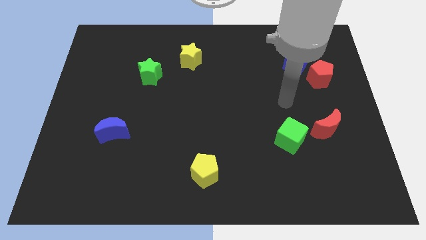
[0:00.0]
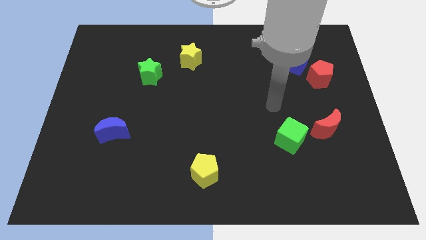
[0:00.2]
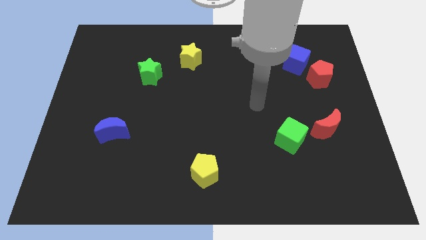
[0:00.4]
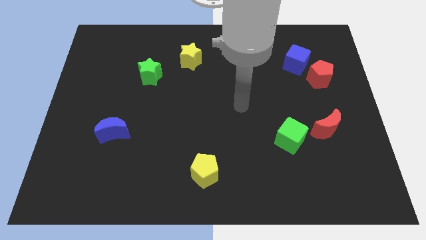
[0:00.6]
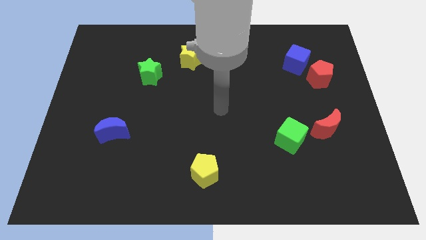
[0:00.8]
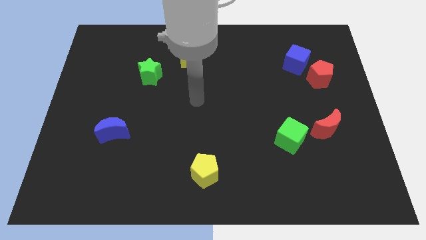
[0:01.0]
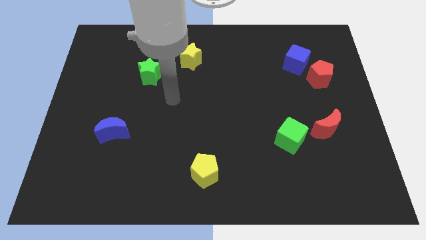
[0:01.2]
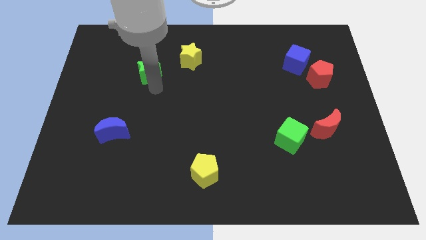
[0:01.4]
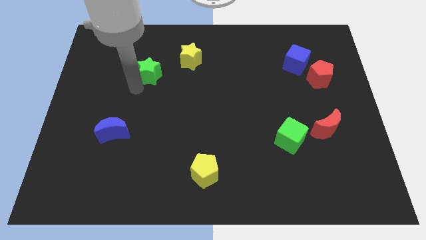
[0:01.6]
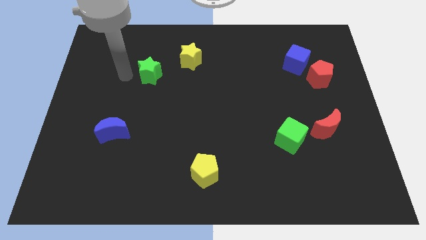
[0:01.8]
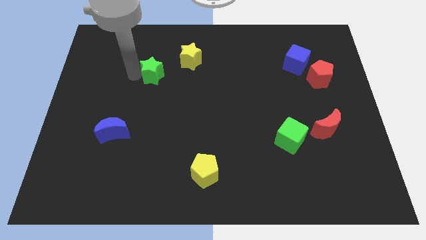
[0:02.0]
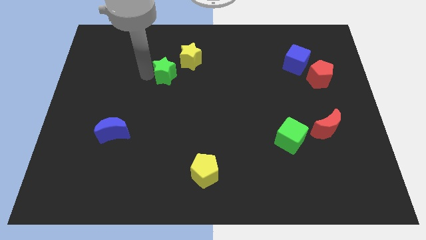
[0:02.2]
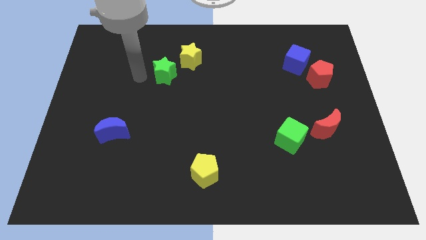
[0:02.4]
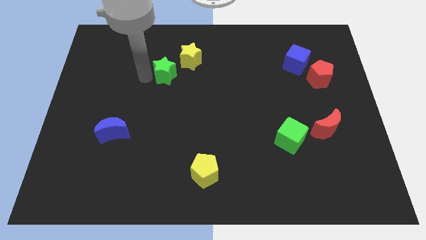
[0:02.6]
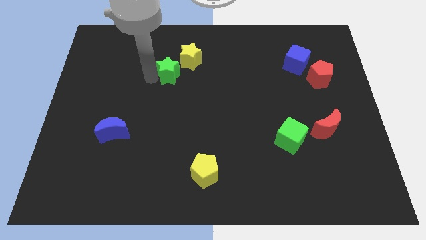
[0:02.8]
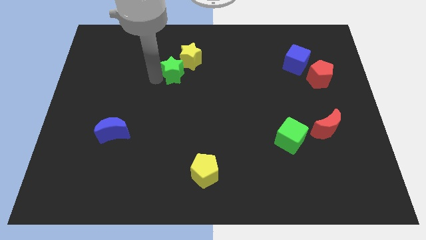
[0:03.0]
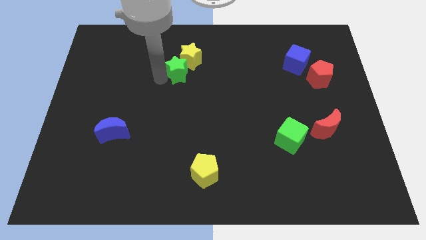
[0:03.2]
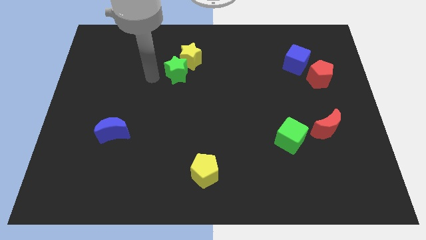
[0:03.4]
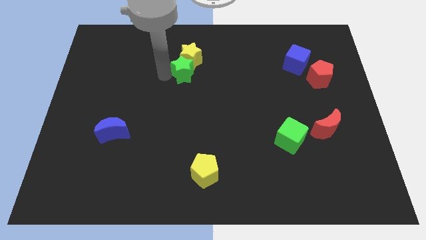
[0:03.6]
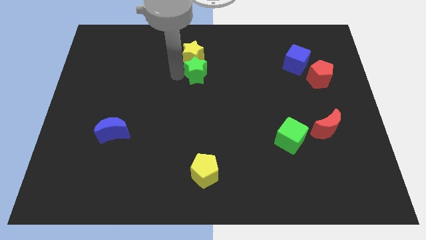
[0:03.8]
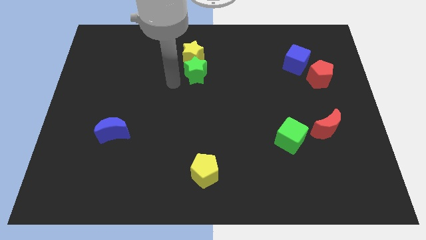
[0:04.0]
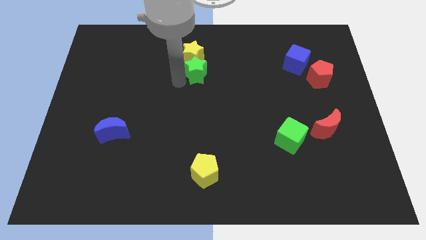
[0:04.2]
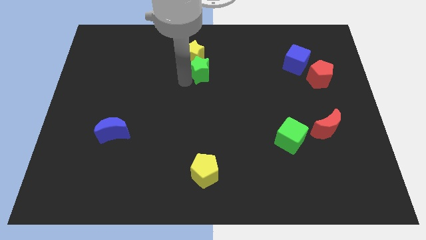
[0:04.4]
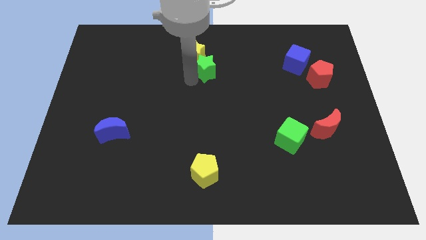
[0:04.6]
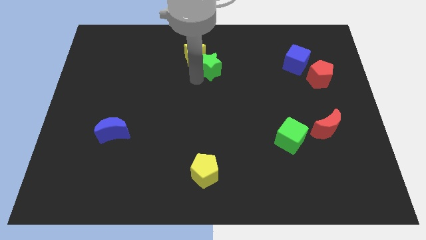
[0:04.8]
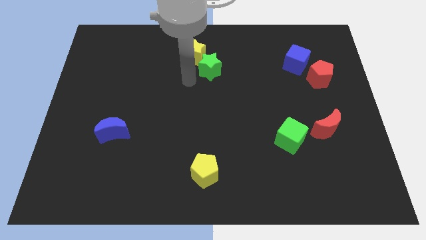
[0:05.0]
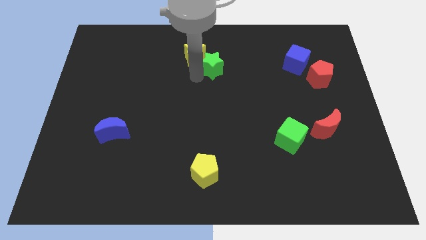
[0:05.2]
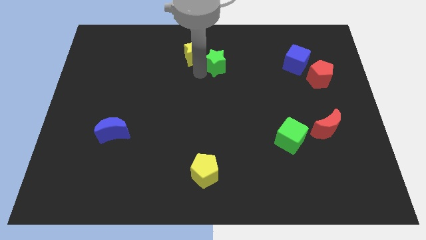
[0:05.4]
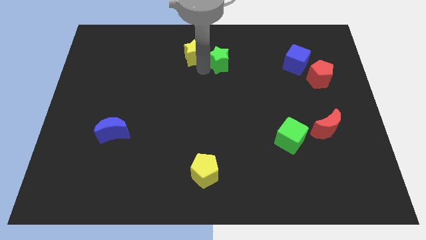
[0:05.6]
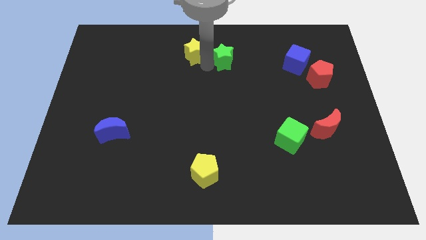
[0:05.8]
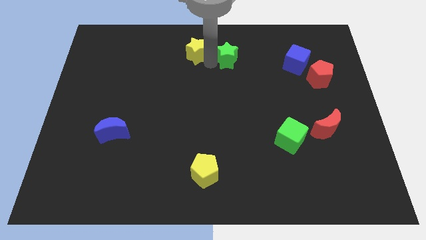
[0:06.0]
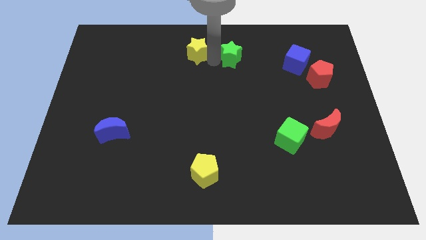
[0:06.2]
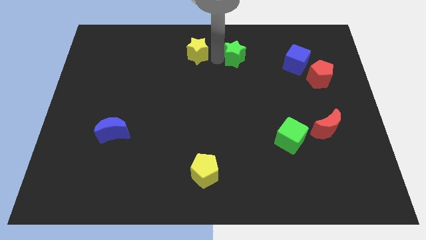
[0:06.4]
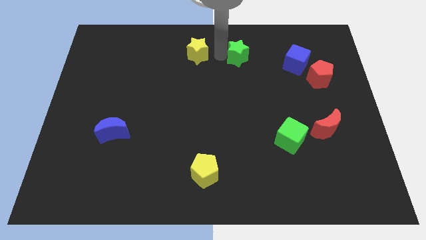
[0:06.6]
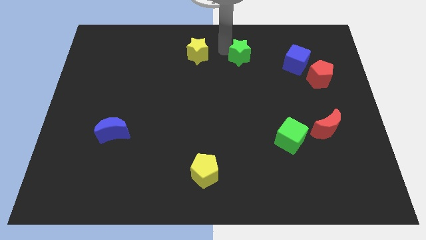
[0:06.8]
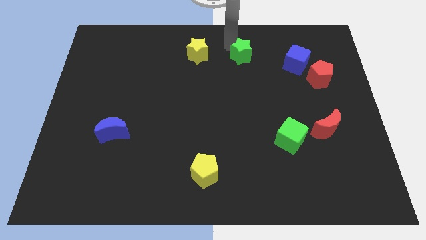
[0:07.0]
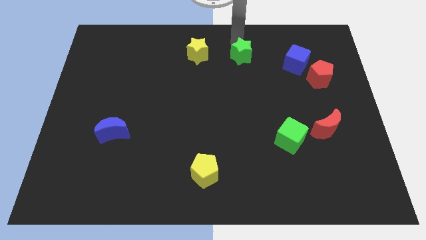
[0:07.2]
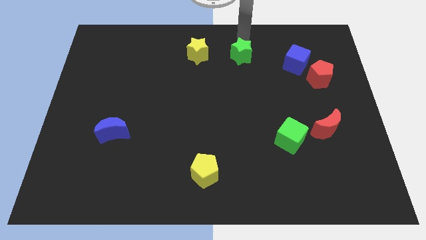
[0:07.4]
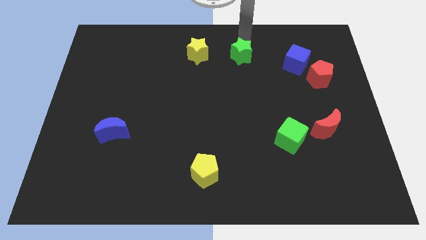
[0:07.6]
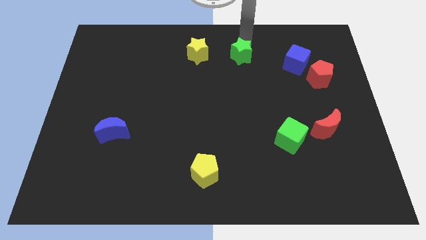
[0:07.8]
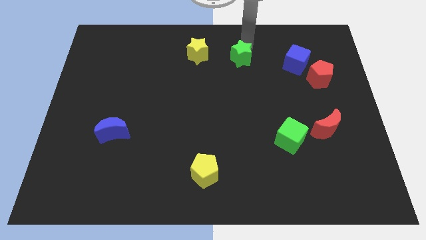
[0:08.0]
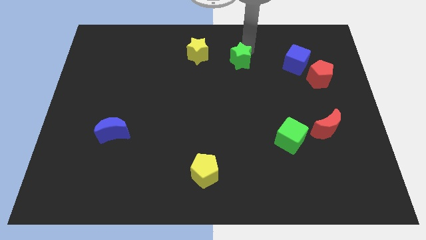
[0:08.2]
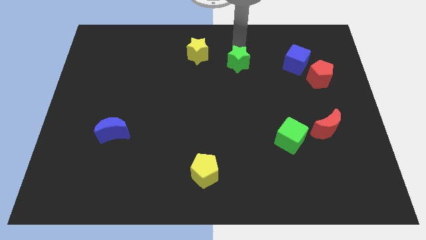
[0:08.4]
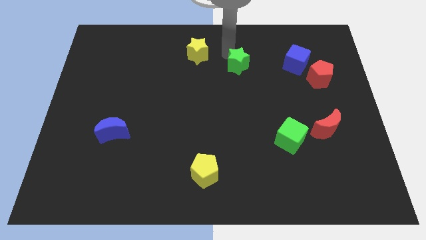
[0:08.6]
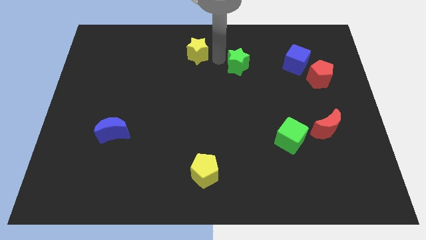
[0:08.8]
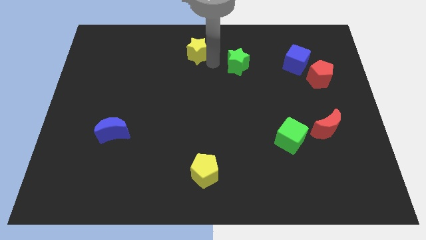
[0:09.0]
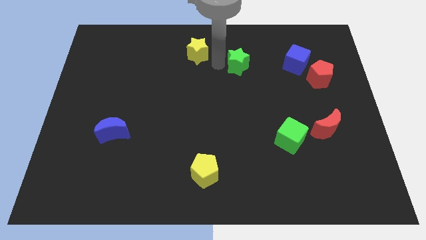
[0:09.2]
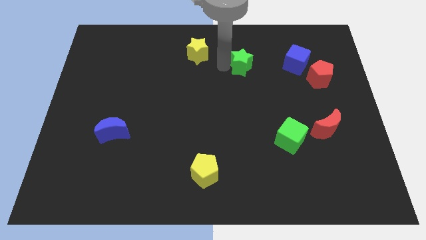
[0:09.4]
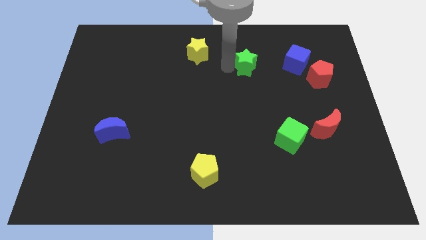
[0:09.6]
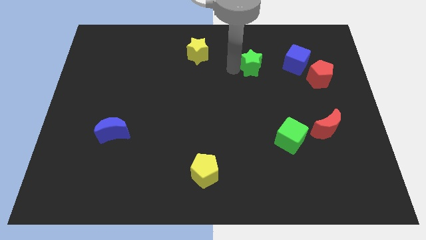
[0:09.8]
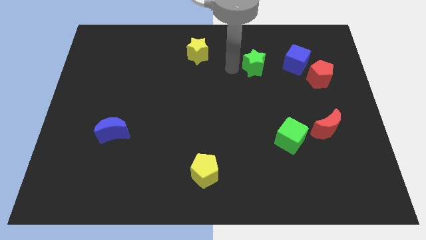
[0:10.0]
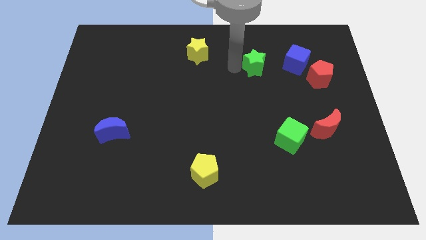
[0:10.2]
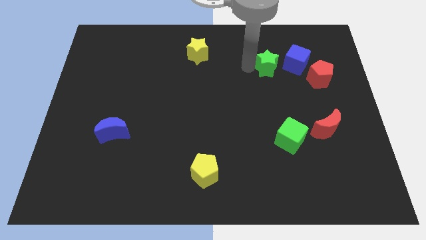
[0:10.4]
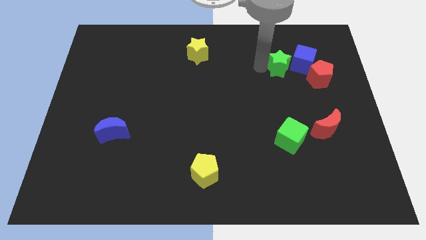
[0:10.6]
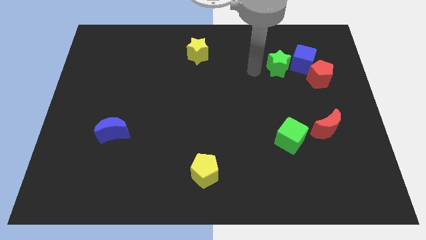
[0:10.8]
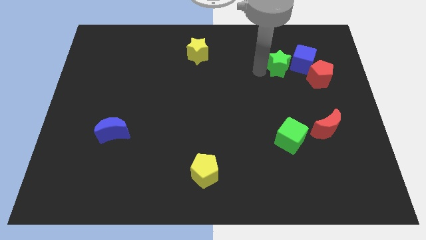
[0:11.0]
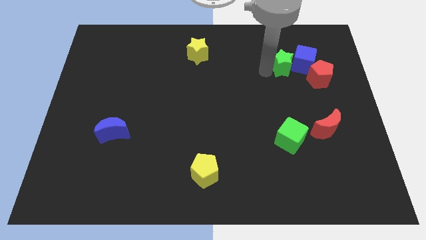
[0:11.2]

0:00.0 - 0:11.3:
push the green star next to the blue cube

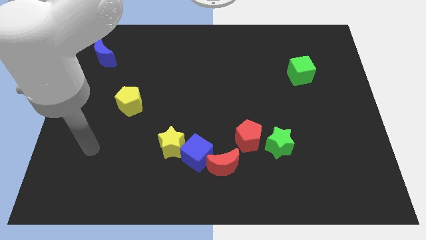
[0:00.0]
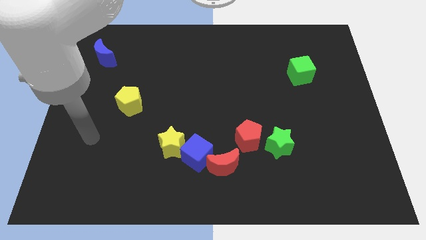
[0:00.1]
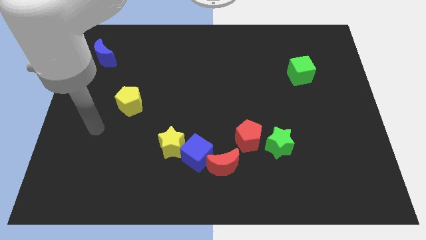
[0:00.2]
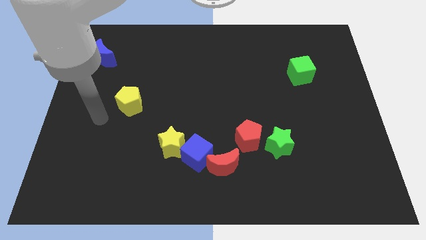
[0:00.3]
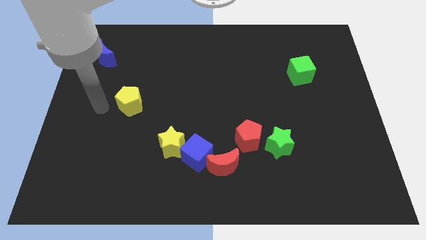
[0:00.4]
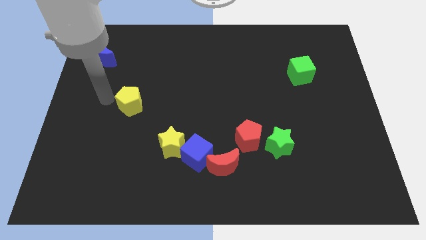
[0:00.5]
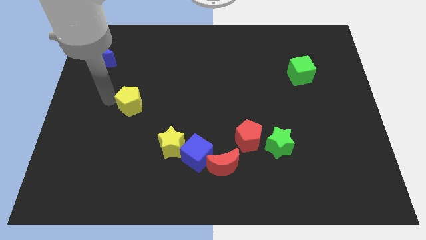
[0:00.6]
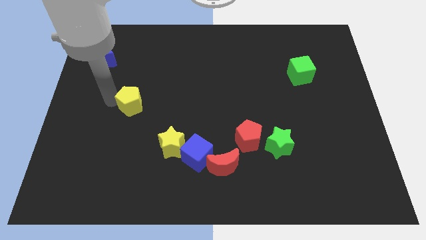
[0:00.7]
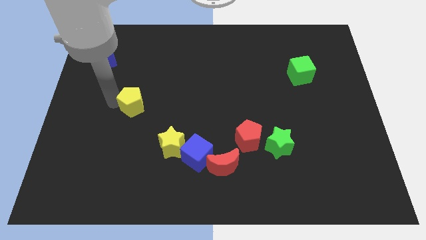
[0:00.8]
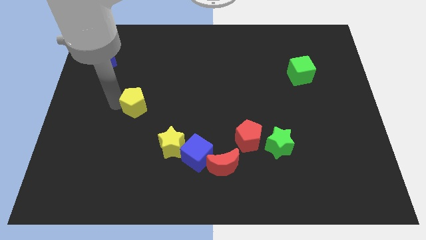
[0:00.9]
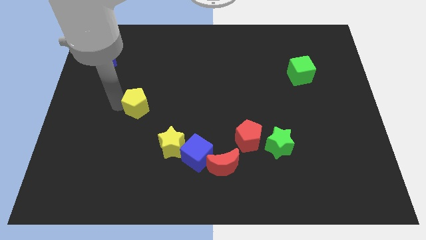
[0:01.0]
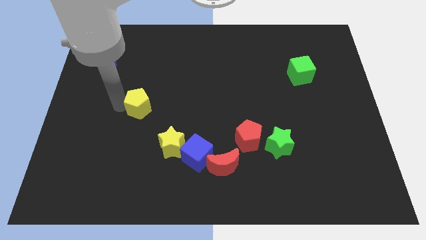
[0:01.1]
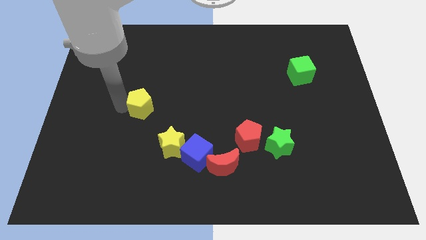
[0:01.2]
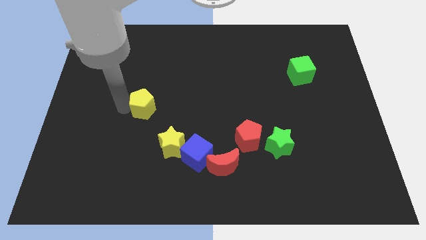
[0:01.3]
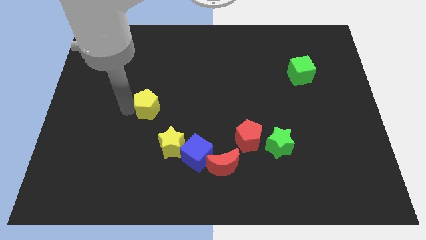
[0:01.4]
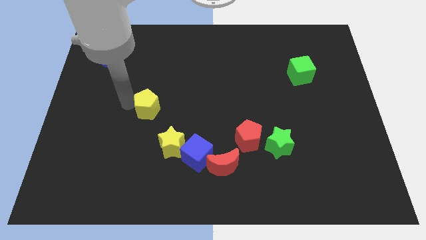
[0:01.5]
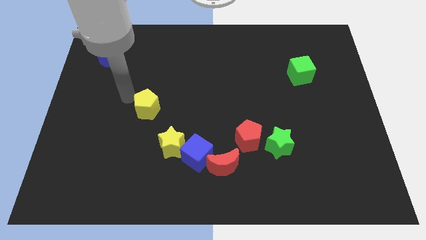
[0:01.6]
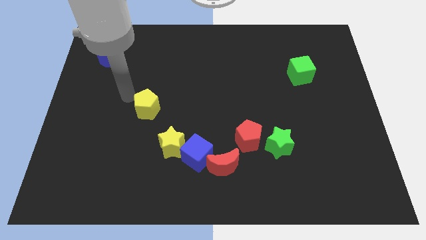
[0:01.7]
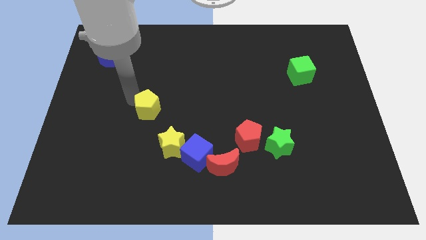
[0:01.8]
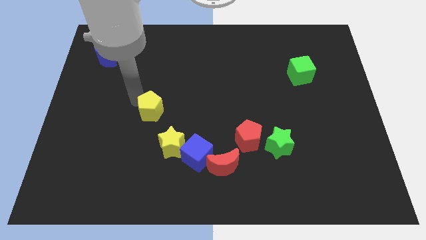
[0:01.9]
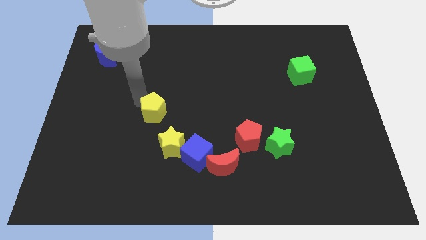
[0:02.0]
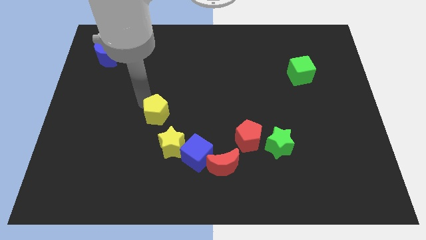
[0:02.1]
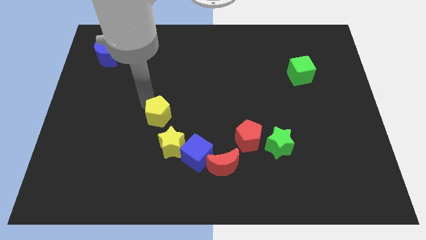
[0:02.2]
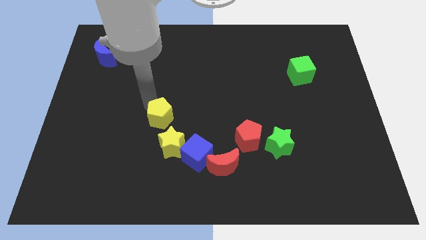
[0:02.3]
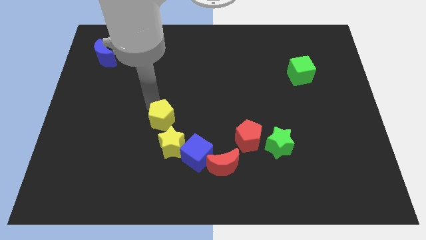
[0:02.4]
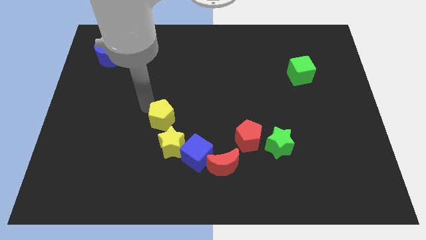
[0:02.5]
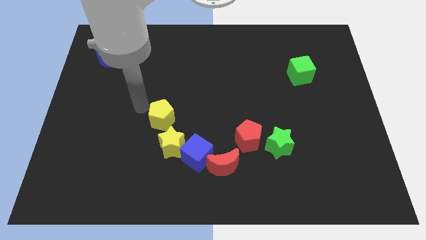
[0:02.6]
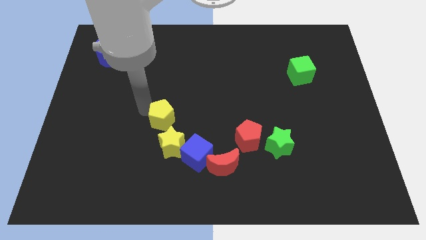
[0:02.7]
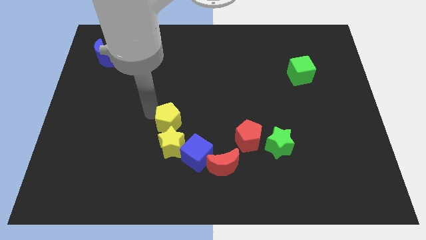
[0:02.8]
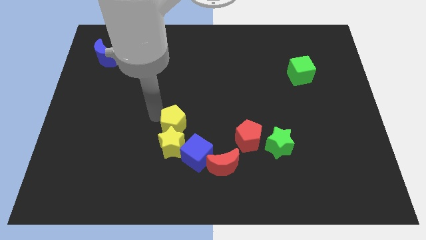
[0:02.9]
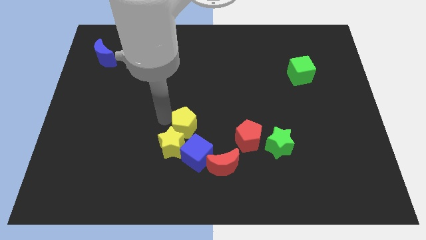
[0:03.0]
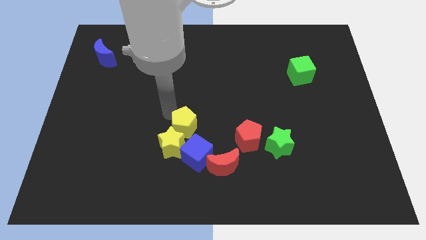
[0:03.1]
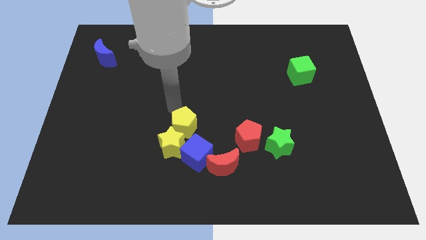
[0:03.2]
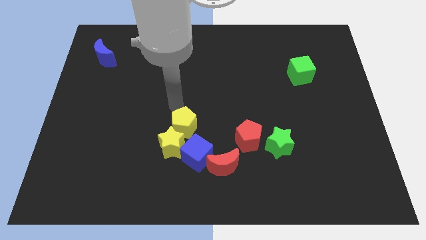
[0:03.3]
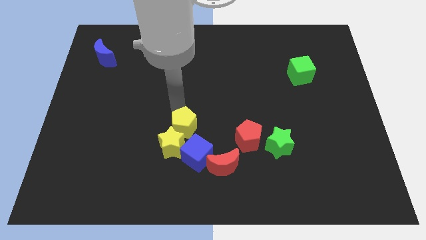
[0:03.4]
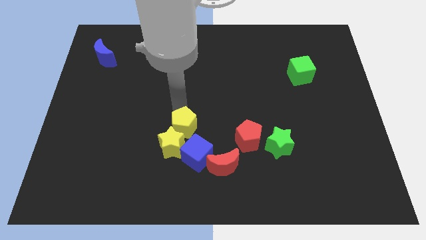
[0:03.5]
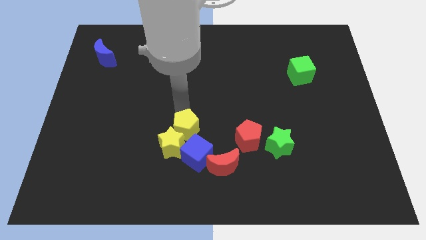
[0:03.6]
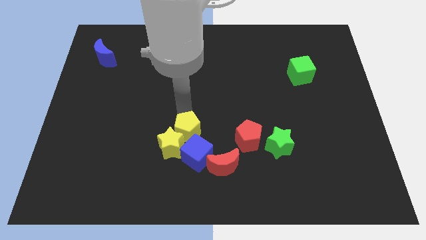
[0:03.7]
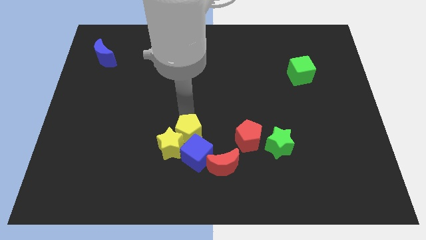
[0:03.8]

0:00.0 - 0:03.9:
put the yellow pentagon towards the blue cube
